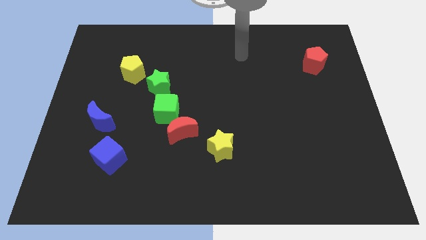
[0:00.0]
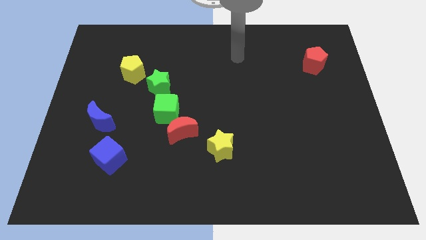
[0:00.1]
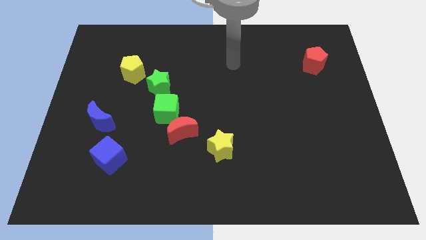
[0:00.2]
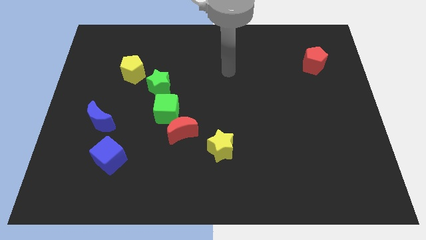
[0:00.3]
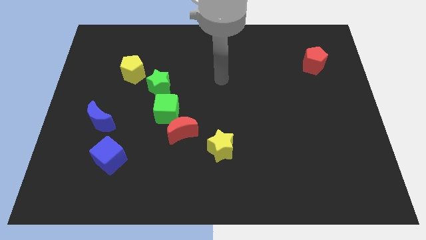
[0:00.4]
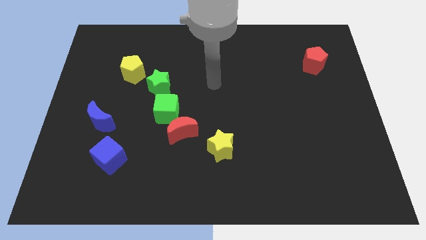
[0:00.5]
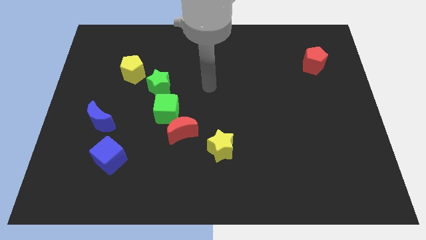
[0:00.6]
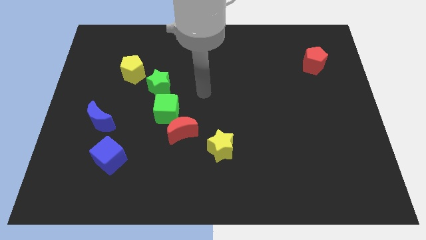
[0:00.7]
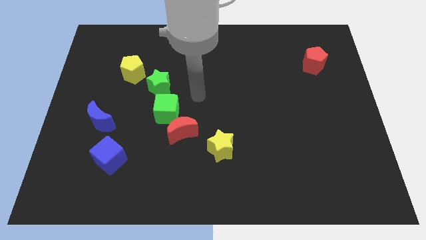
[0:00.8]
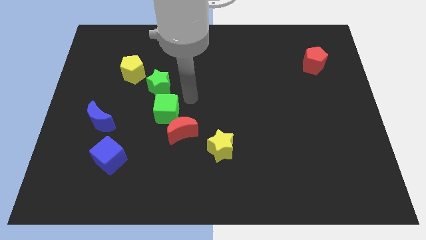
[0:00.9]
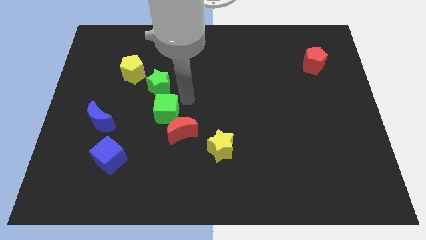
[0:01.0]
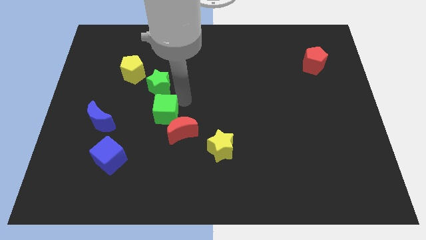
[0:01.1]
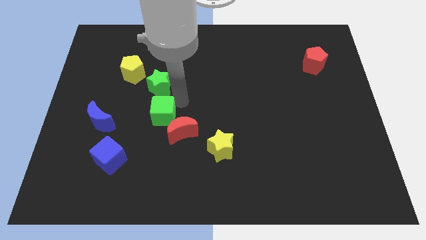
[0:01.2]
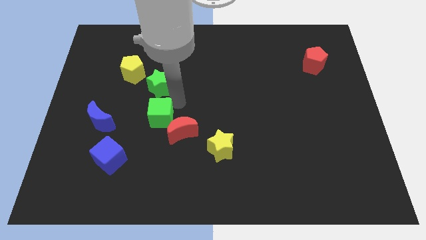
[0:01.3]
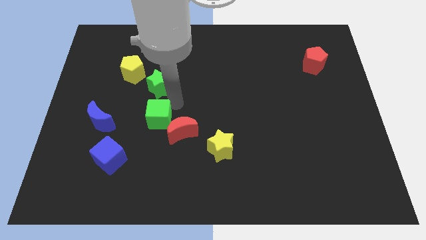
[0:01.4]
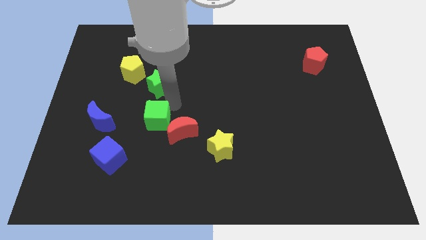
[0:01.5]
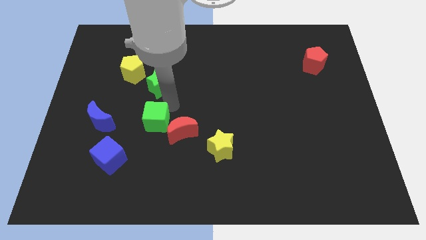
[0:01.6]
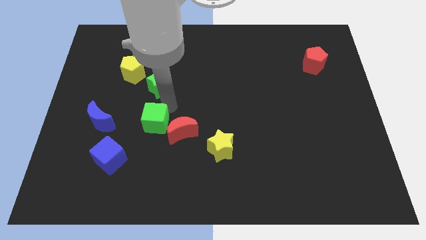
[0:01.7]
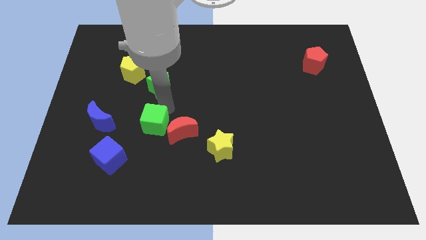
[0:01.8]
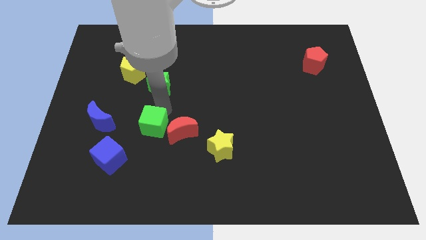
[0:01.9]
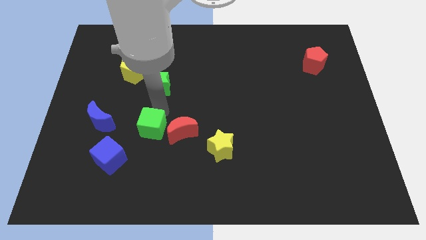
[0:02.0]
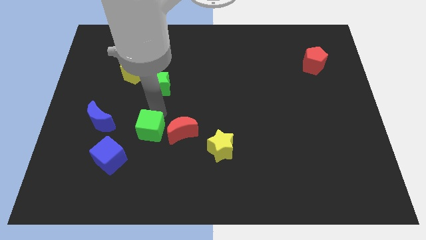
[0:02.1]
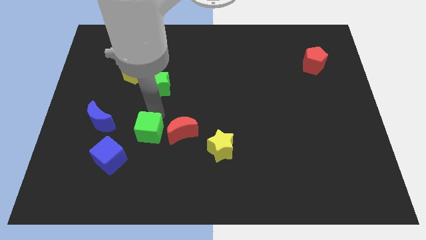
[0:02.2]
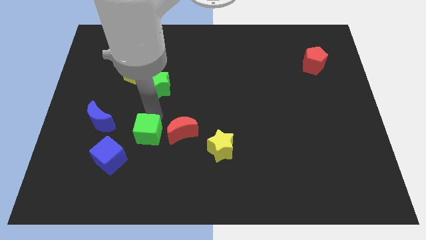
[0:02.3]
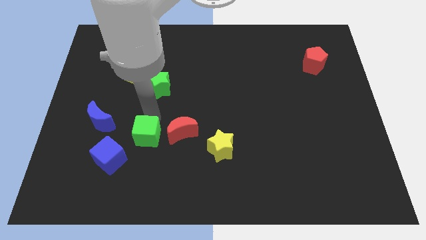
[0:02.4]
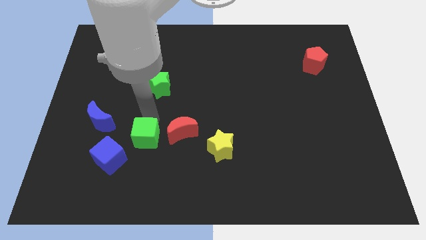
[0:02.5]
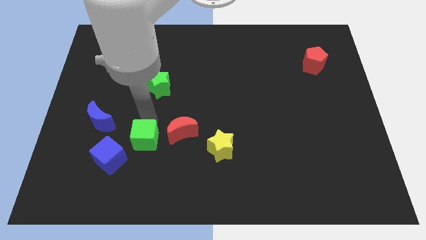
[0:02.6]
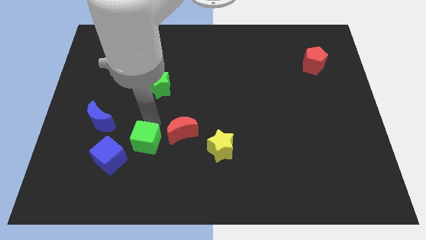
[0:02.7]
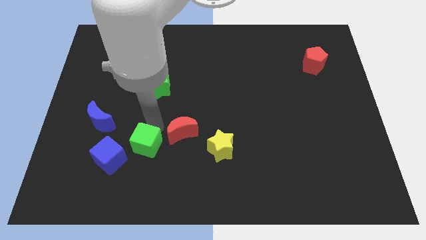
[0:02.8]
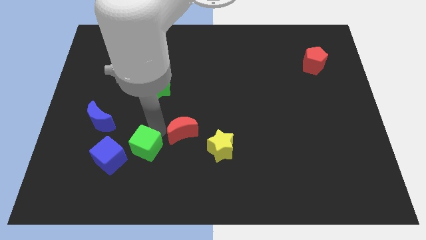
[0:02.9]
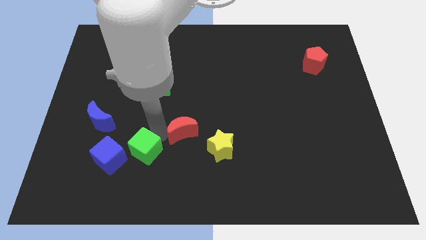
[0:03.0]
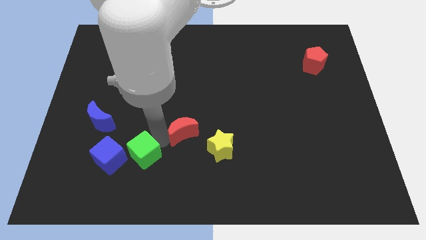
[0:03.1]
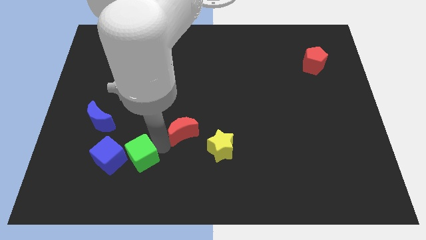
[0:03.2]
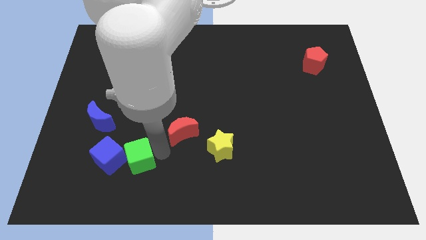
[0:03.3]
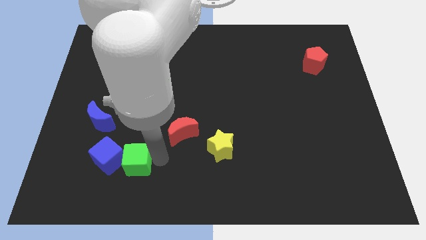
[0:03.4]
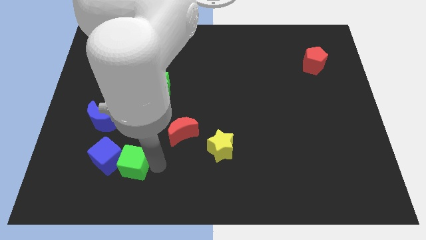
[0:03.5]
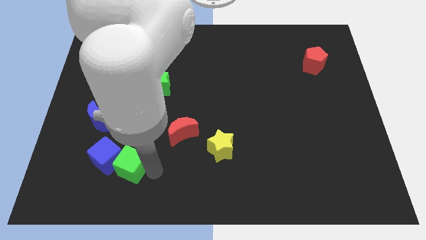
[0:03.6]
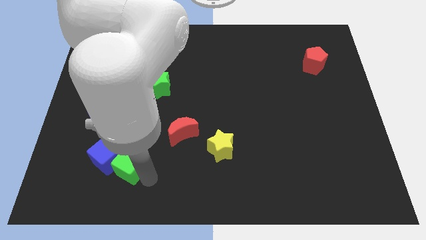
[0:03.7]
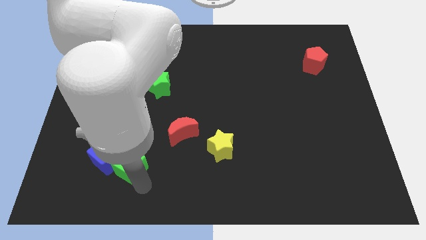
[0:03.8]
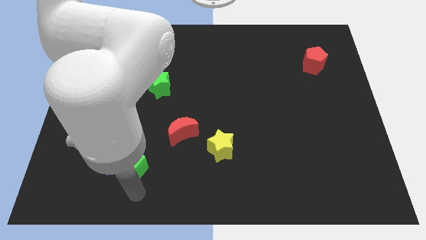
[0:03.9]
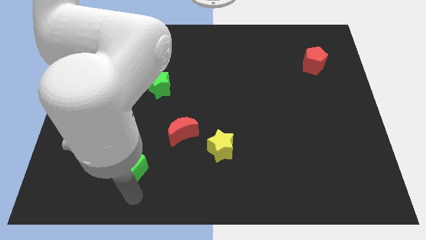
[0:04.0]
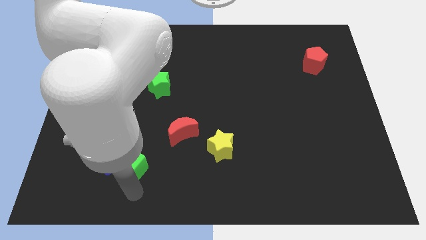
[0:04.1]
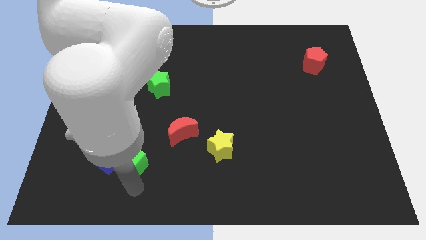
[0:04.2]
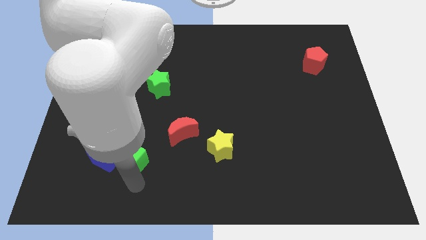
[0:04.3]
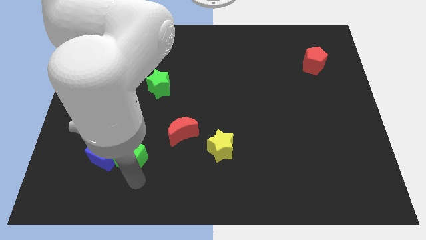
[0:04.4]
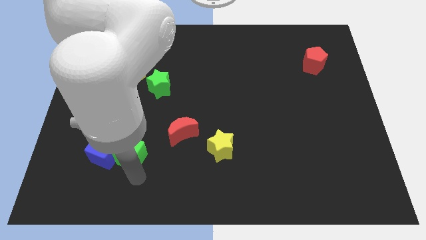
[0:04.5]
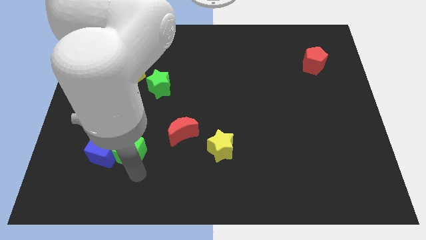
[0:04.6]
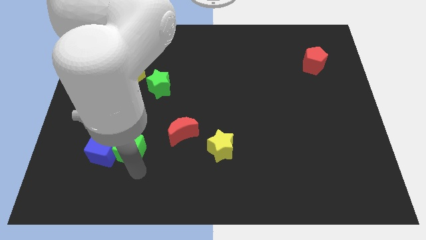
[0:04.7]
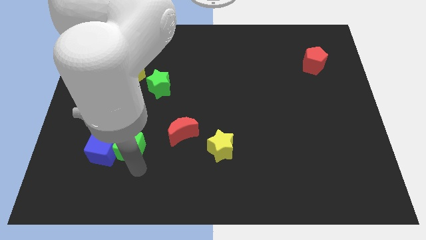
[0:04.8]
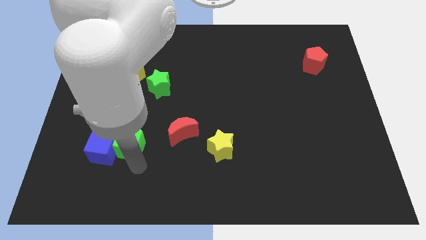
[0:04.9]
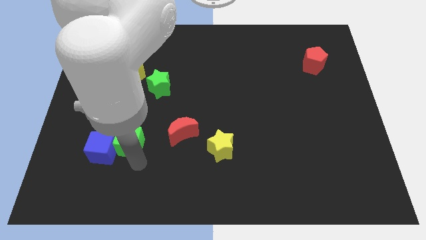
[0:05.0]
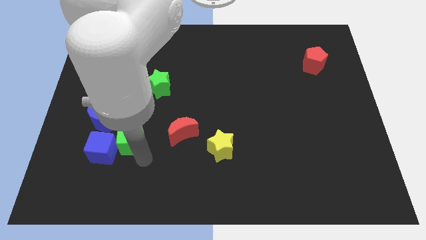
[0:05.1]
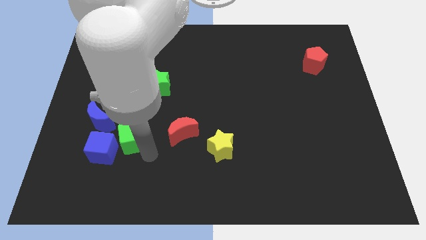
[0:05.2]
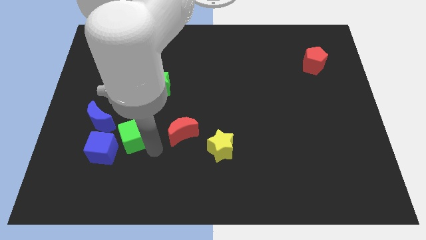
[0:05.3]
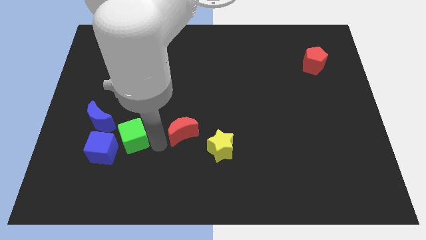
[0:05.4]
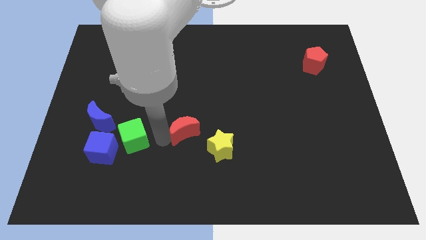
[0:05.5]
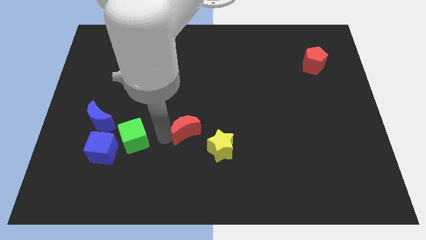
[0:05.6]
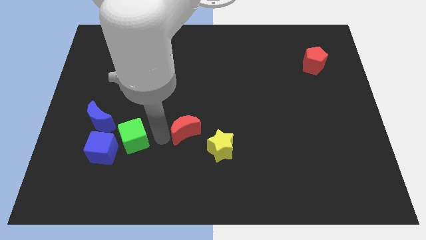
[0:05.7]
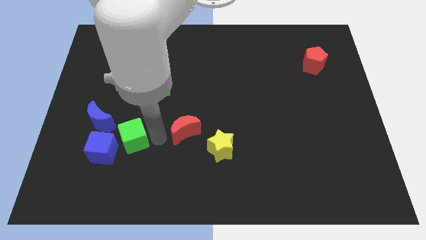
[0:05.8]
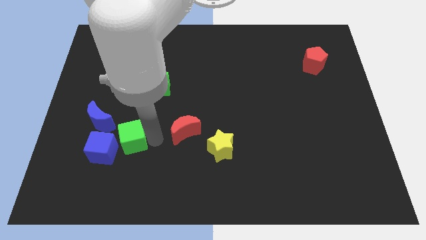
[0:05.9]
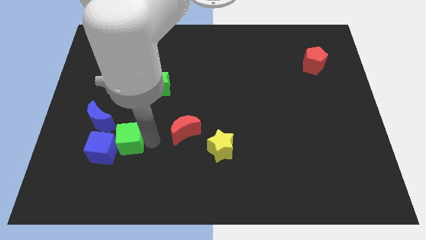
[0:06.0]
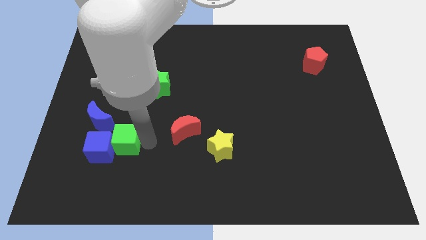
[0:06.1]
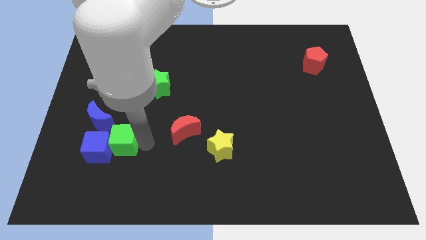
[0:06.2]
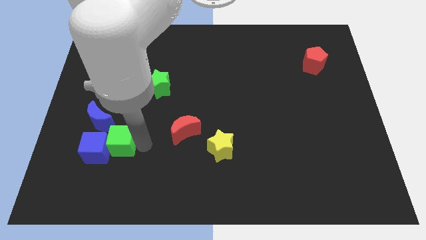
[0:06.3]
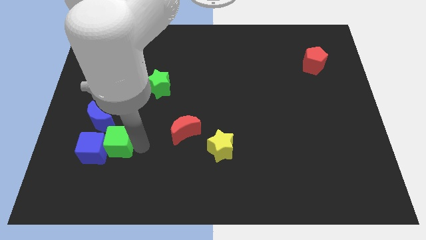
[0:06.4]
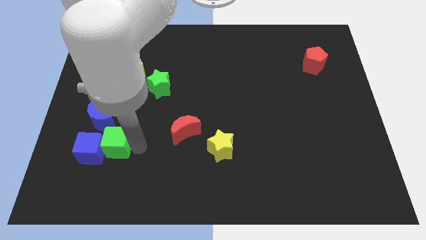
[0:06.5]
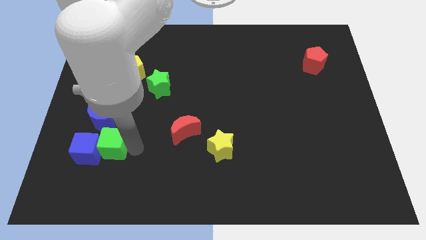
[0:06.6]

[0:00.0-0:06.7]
put the green cube to the bottom side of the blue moon

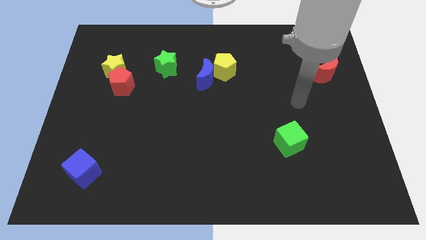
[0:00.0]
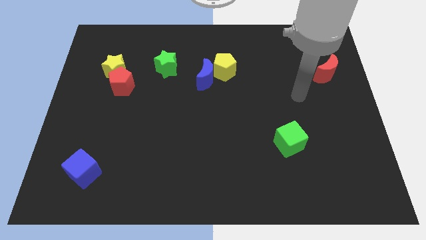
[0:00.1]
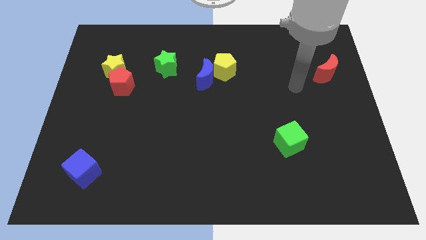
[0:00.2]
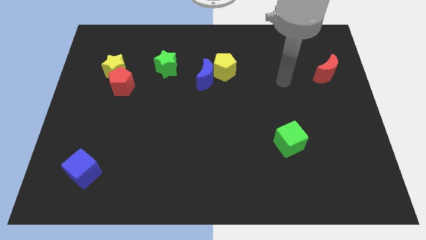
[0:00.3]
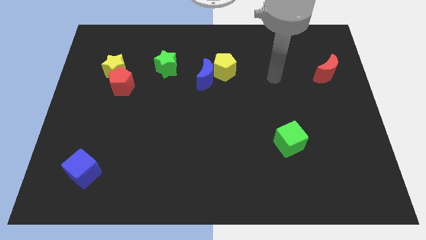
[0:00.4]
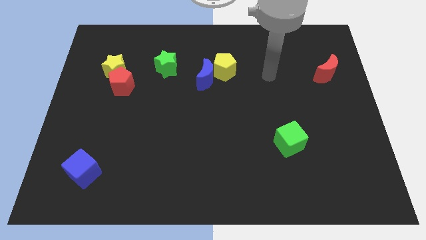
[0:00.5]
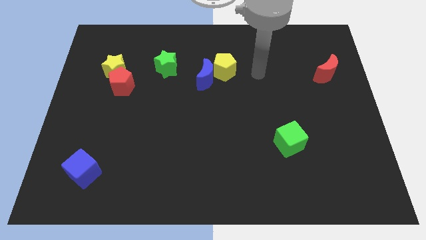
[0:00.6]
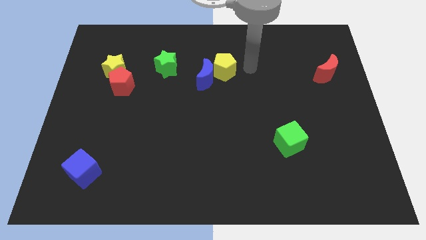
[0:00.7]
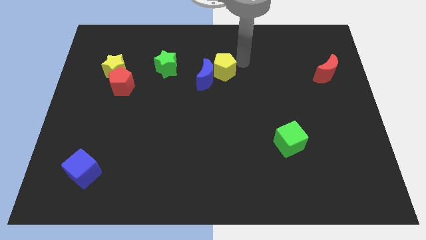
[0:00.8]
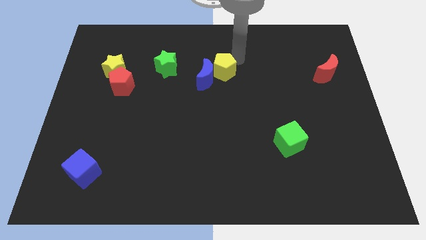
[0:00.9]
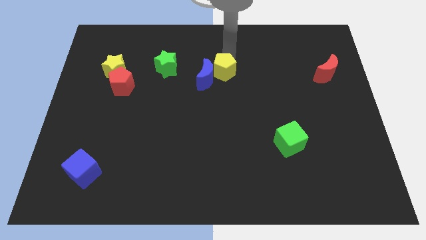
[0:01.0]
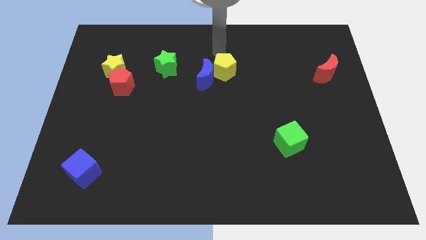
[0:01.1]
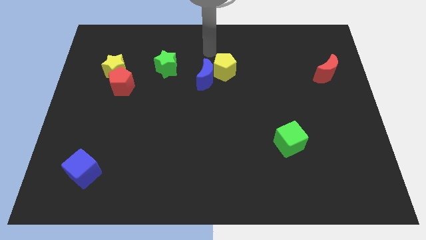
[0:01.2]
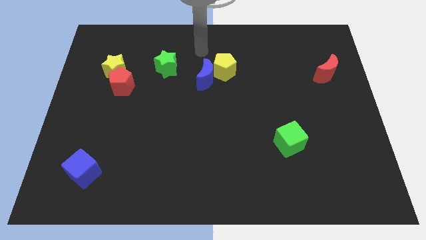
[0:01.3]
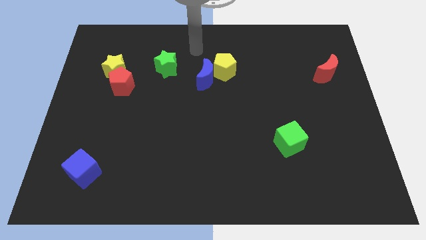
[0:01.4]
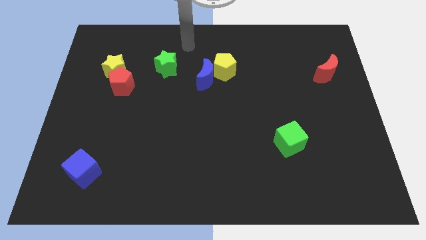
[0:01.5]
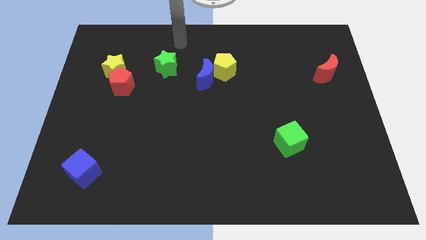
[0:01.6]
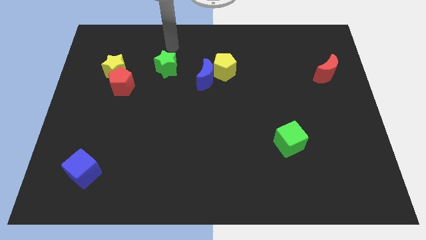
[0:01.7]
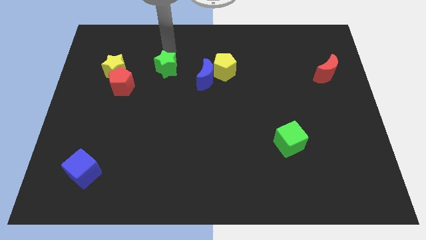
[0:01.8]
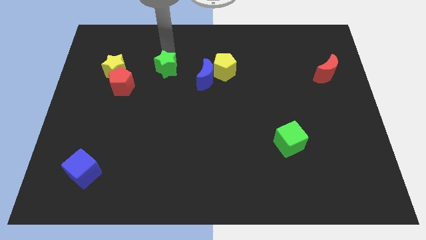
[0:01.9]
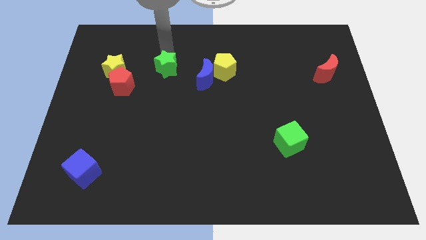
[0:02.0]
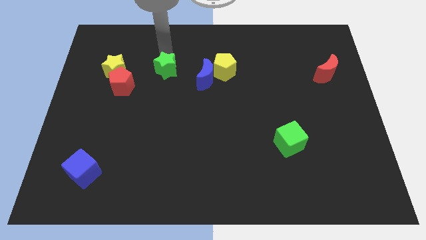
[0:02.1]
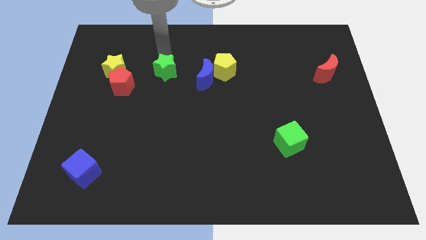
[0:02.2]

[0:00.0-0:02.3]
push the green star to the right side of the red pentagon
